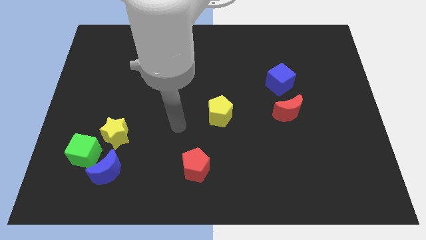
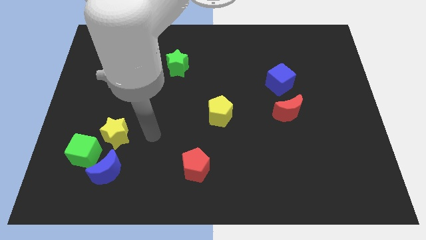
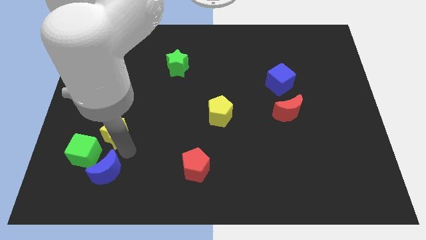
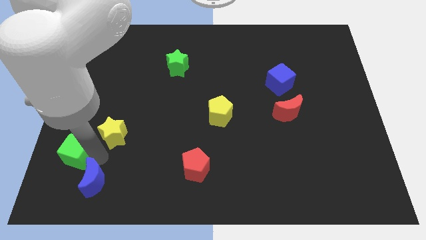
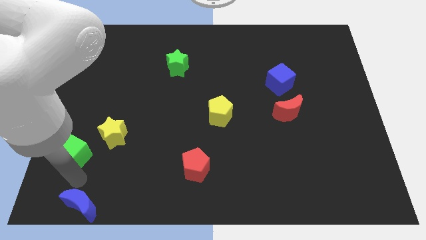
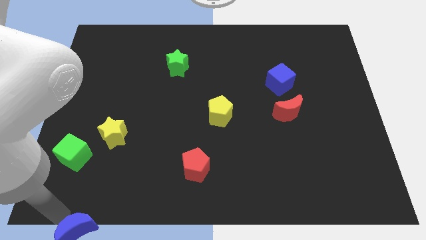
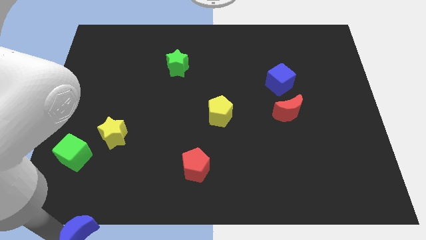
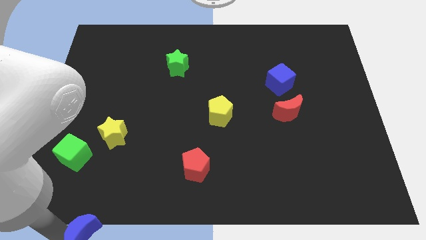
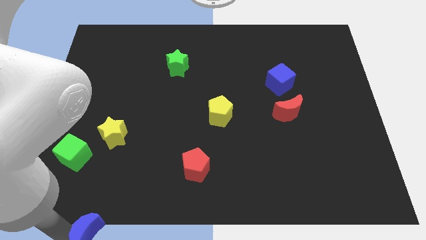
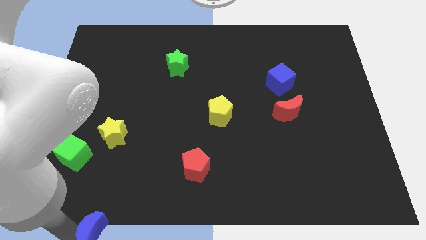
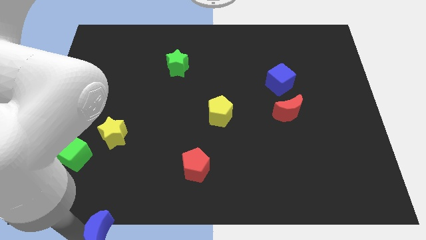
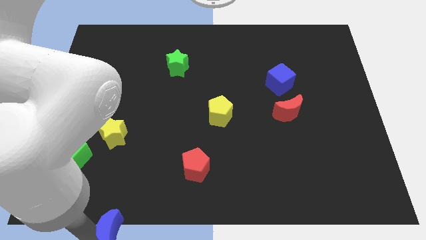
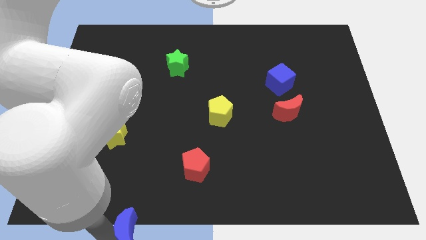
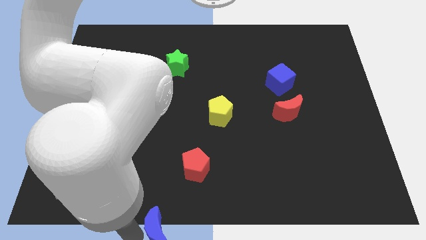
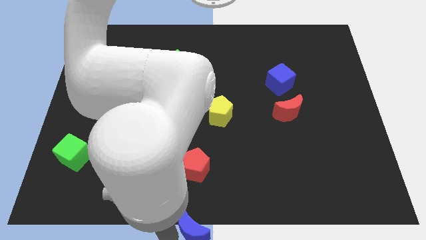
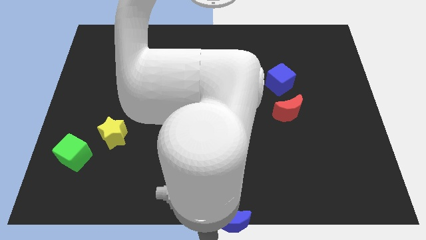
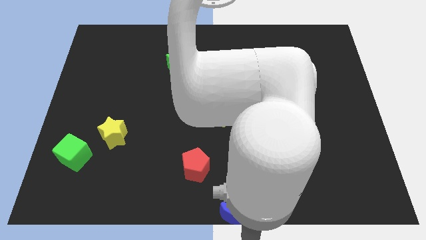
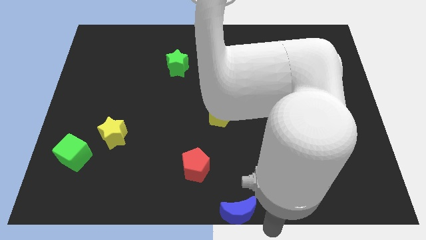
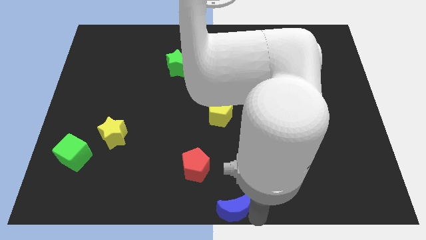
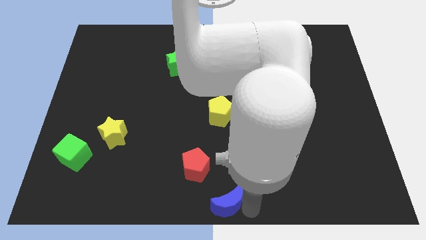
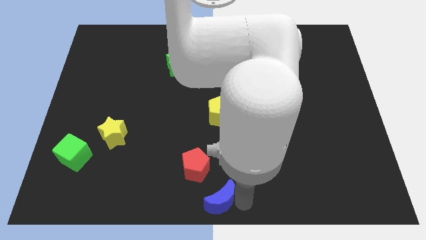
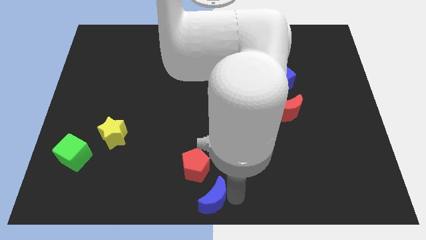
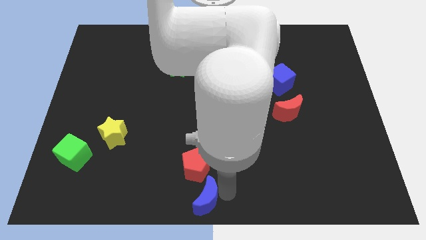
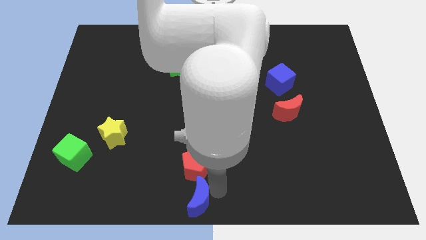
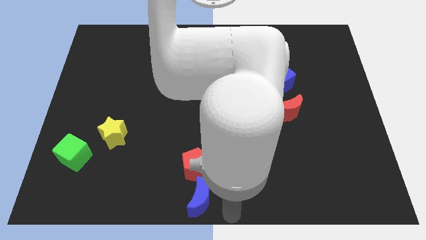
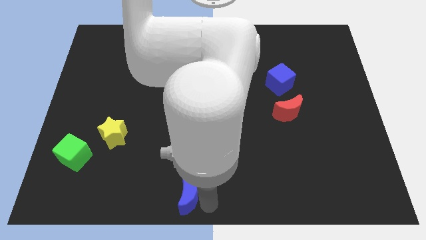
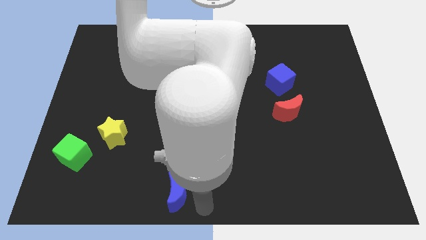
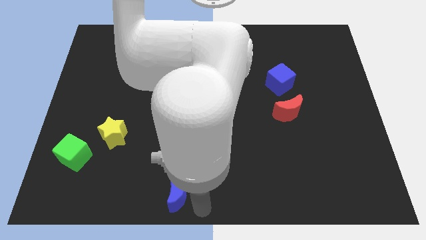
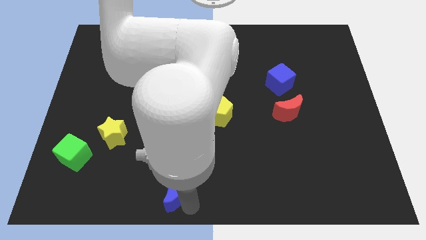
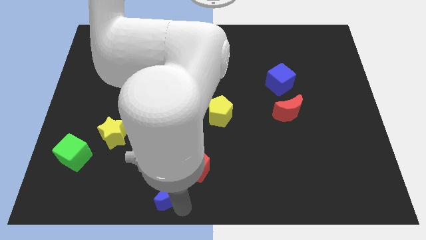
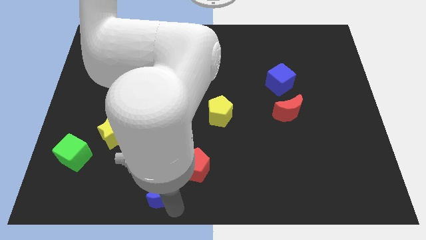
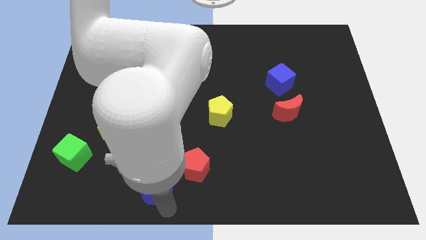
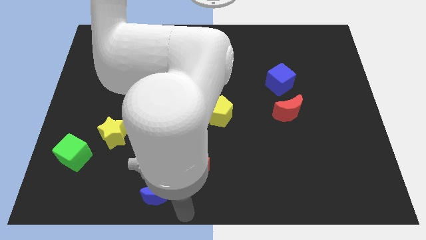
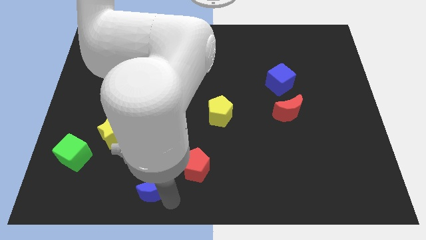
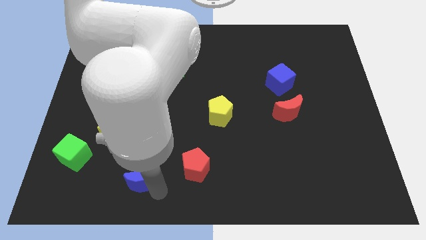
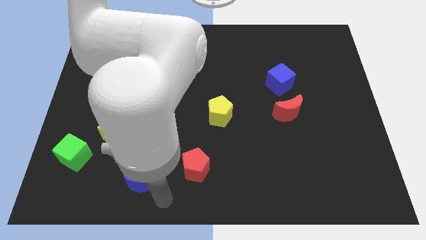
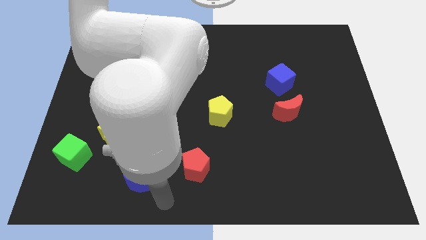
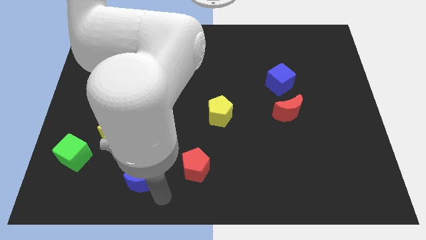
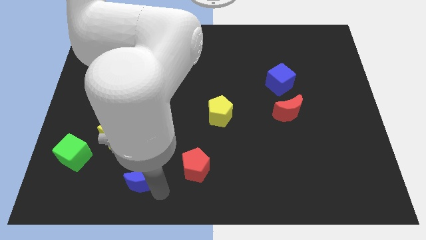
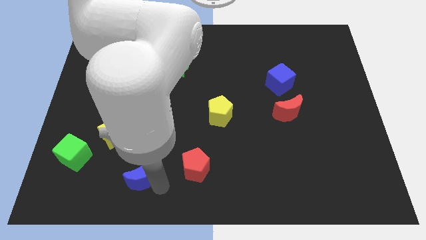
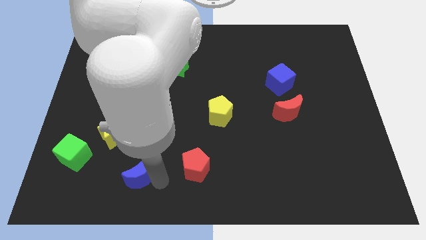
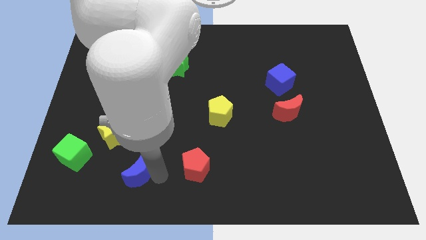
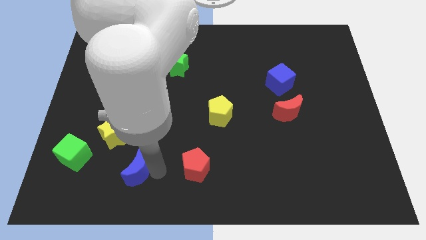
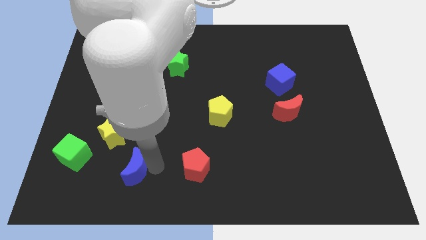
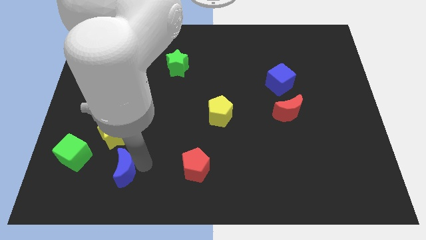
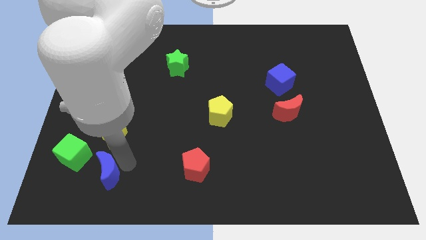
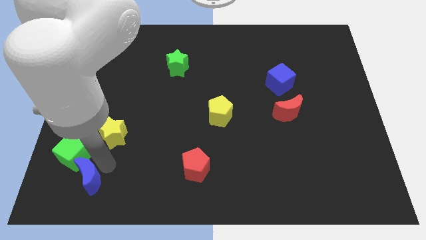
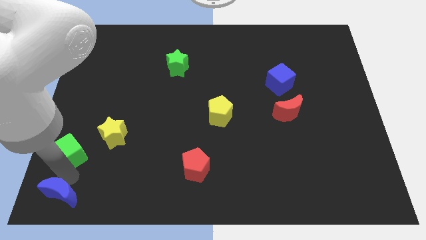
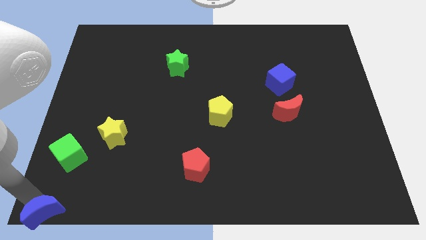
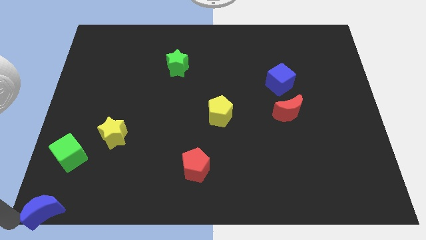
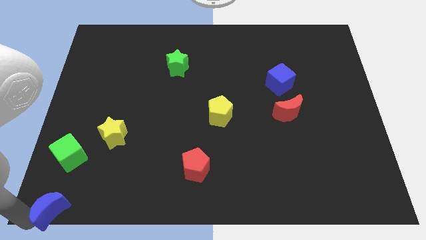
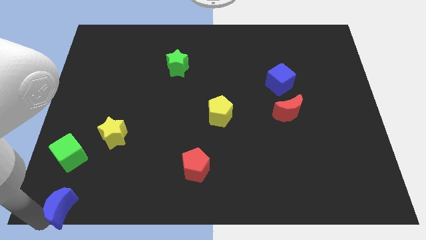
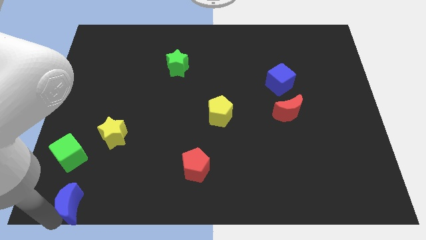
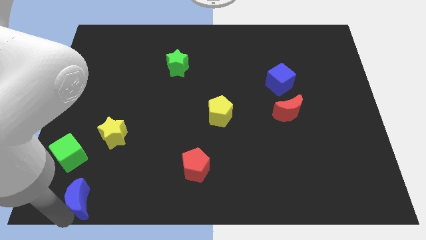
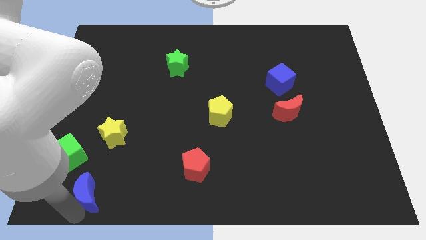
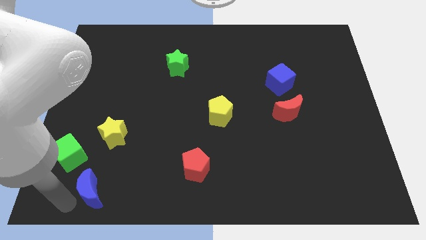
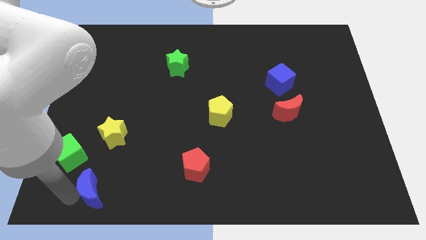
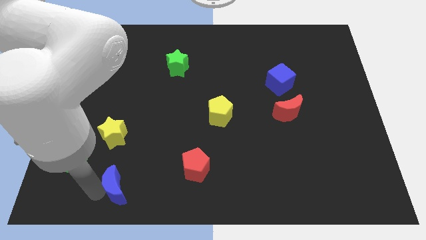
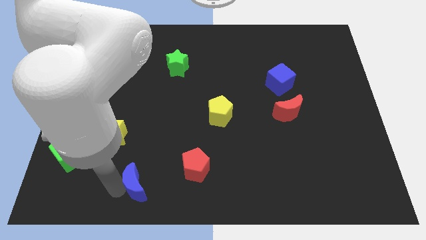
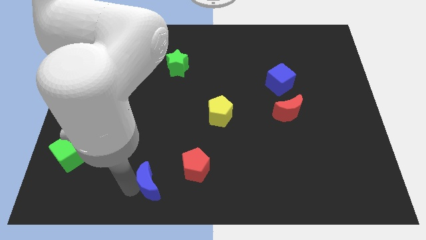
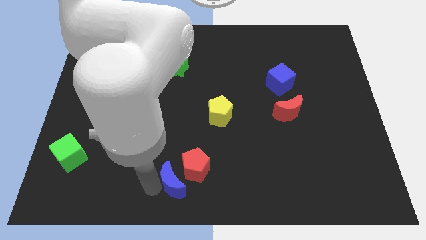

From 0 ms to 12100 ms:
push the blue moon next to the red pentagon

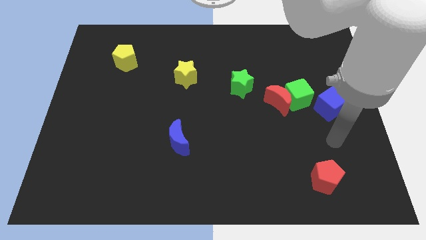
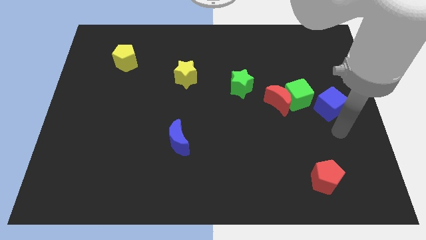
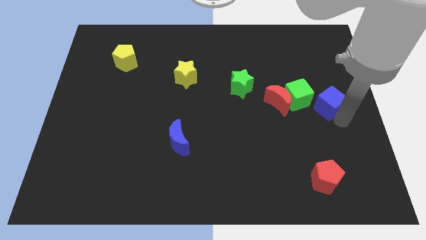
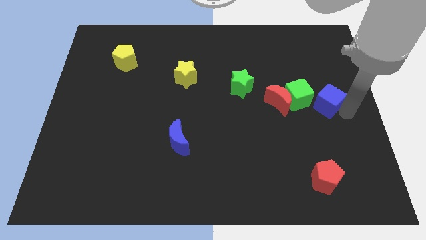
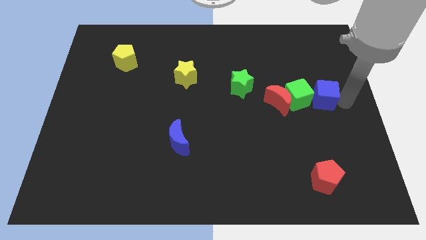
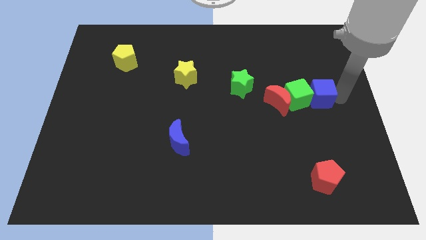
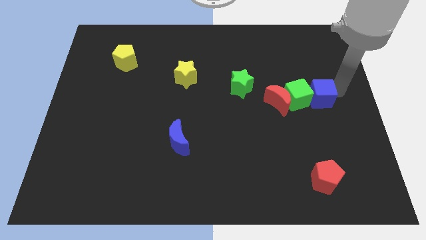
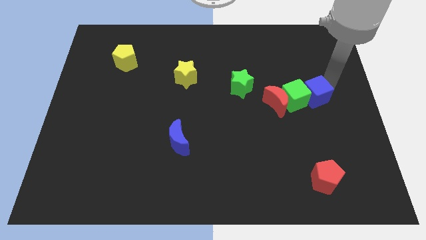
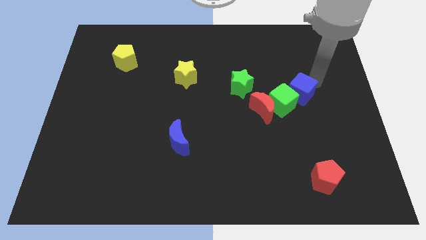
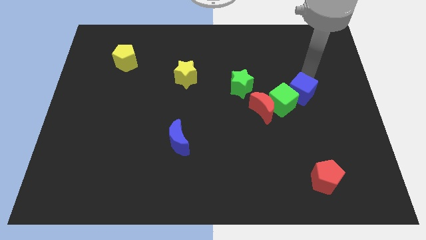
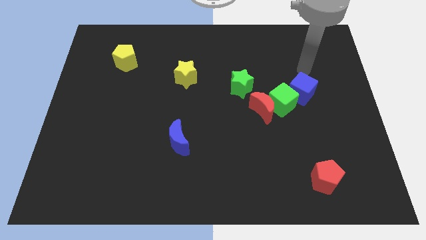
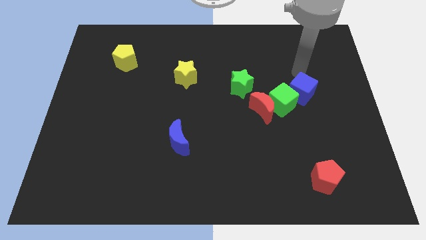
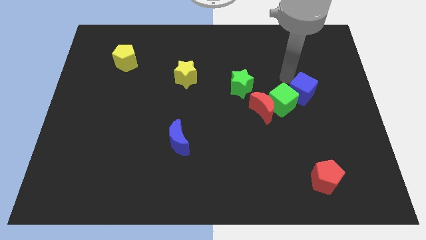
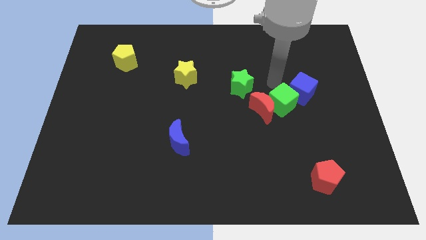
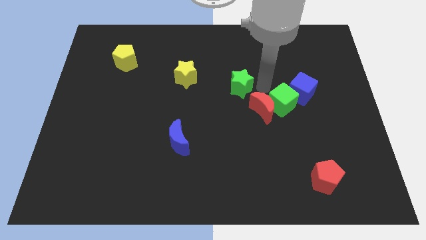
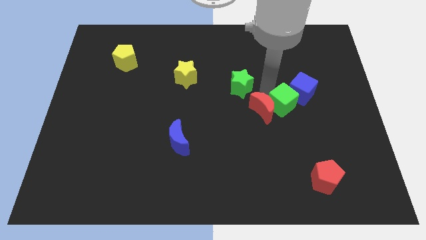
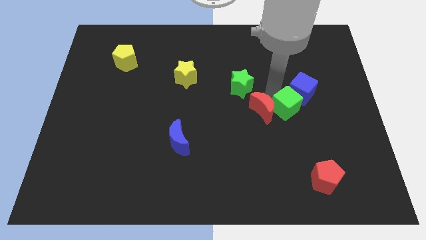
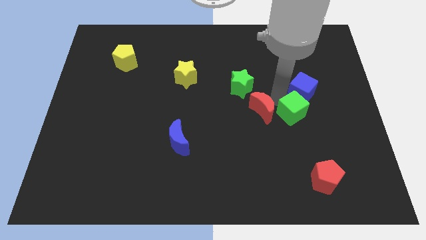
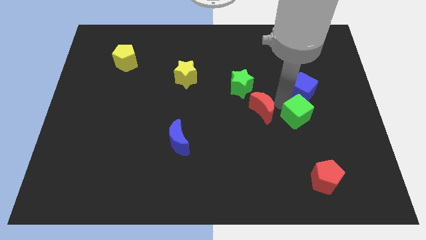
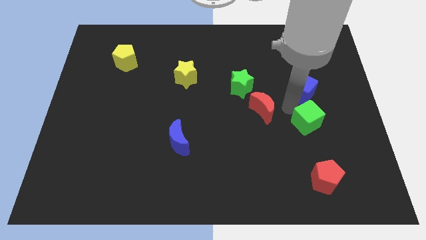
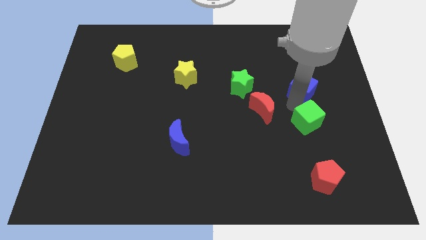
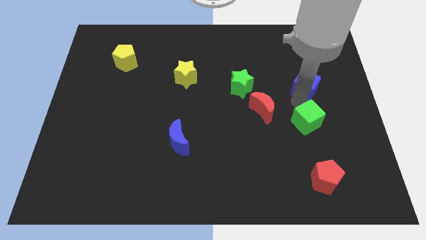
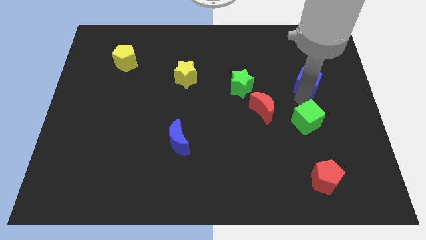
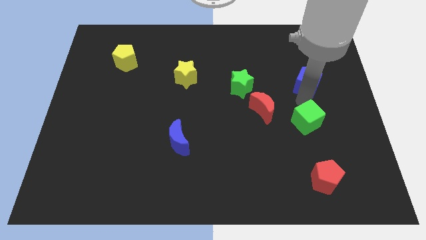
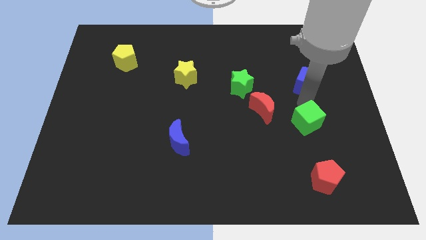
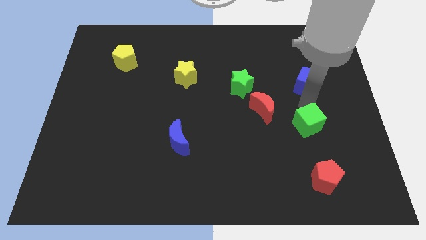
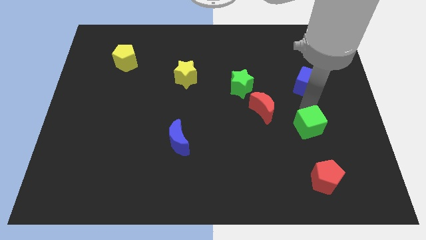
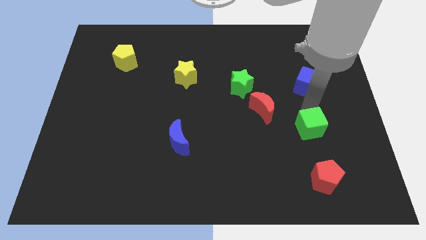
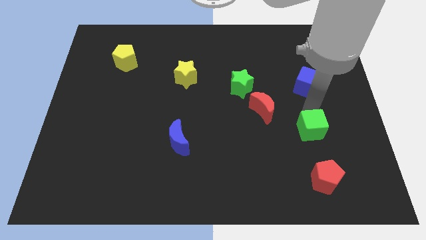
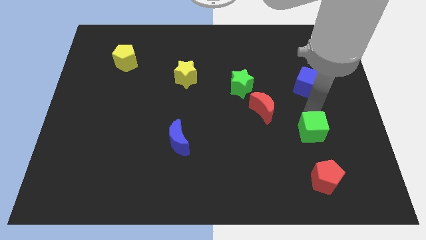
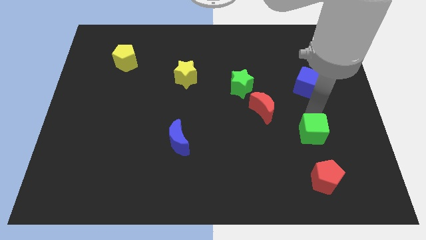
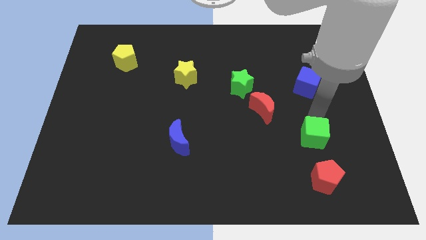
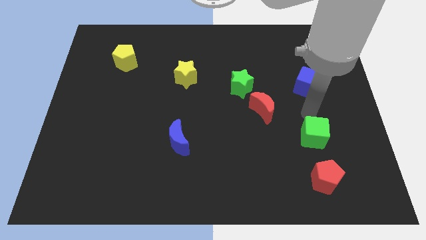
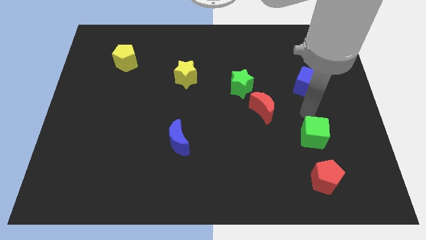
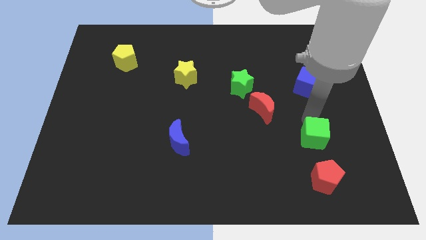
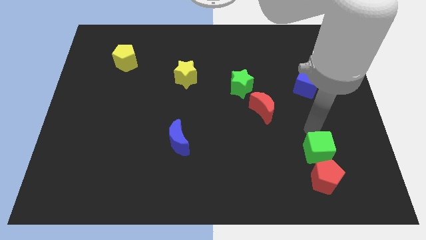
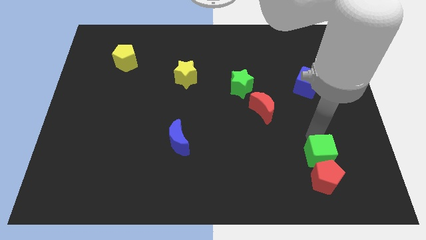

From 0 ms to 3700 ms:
put the green cube to the red pentagon
